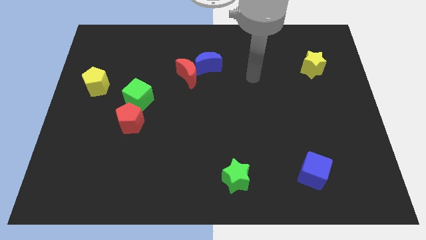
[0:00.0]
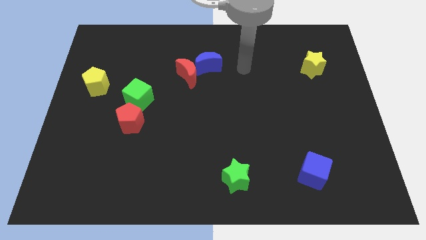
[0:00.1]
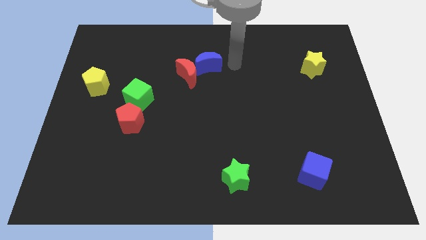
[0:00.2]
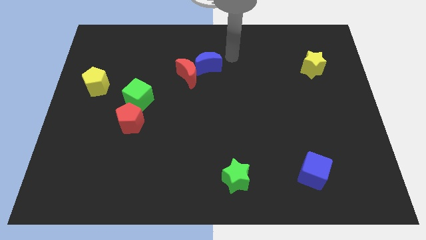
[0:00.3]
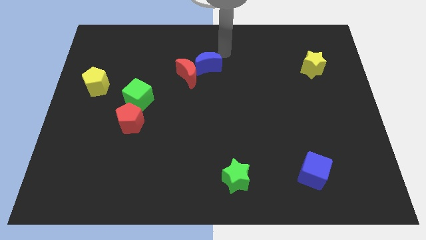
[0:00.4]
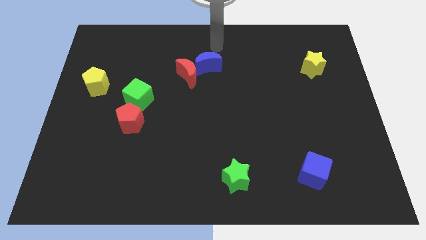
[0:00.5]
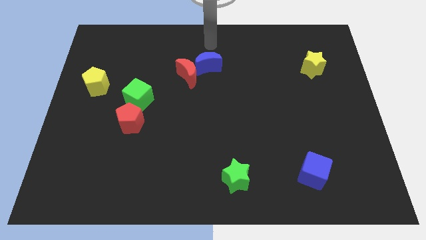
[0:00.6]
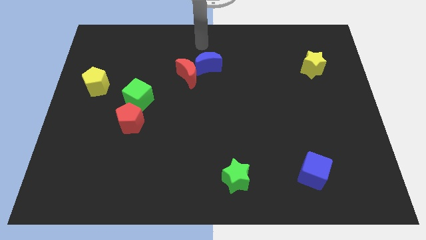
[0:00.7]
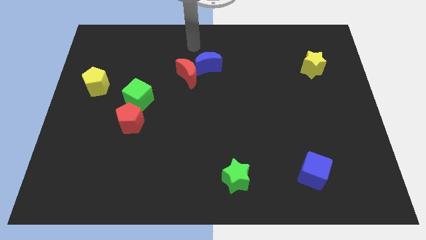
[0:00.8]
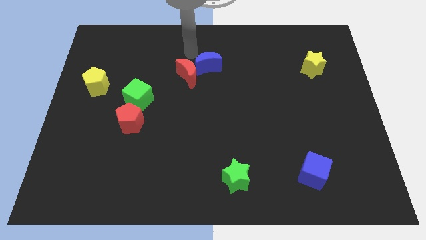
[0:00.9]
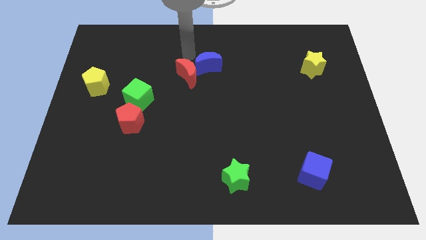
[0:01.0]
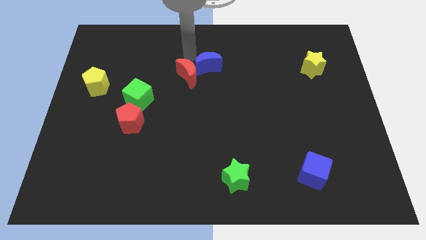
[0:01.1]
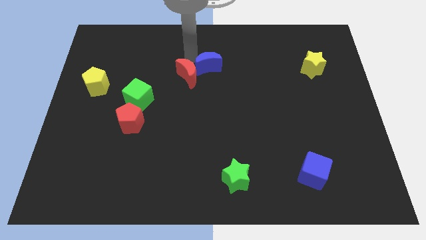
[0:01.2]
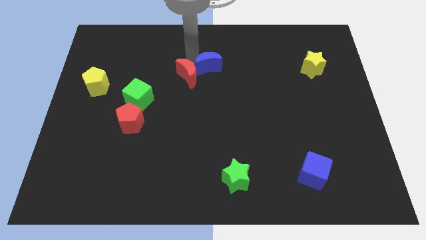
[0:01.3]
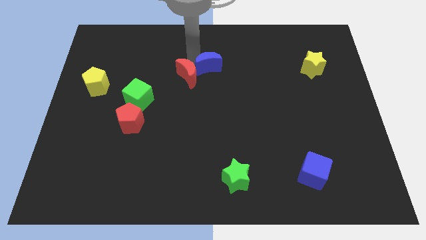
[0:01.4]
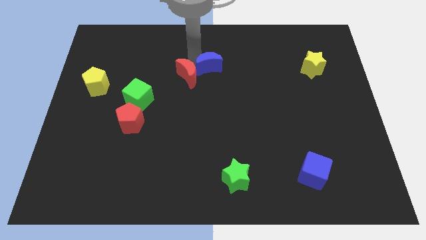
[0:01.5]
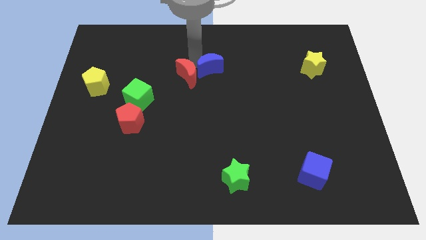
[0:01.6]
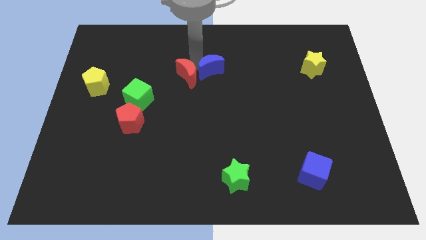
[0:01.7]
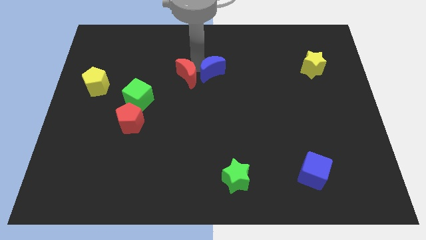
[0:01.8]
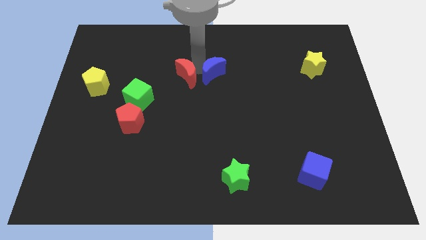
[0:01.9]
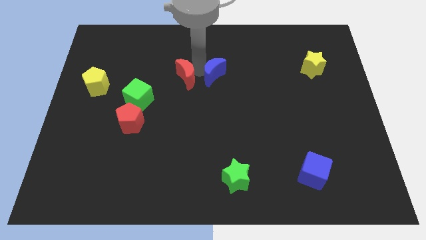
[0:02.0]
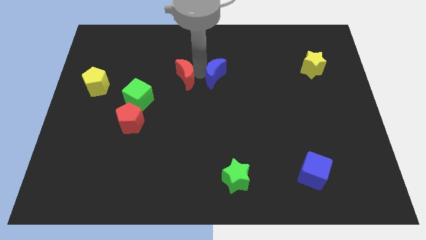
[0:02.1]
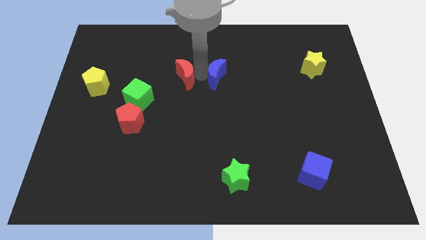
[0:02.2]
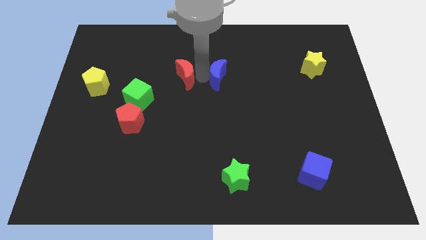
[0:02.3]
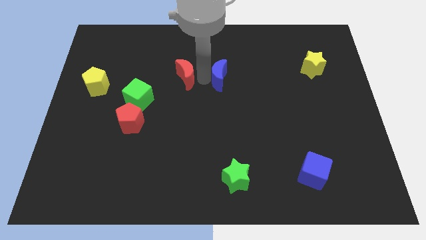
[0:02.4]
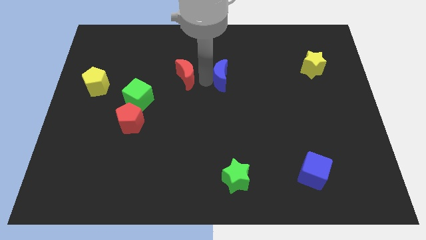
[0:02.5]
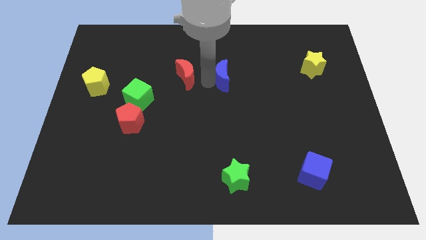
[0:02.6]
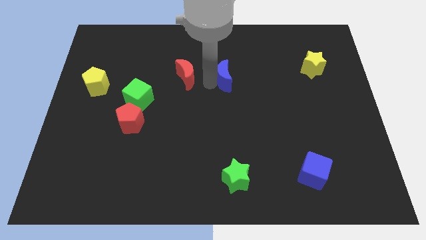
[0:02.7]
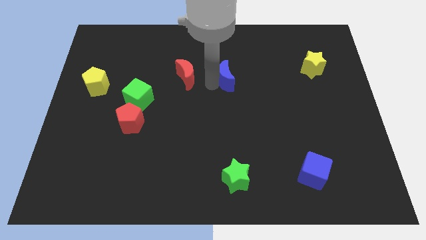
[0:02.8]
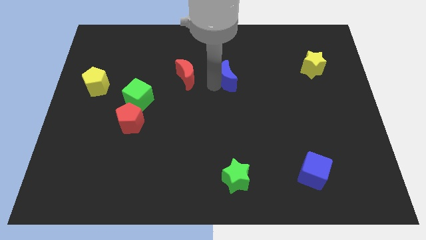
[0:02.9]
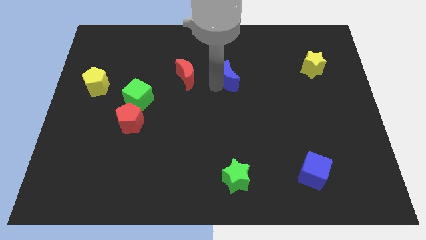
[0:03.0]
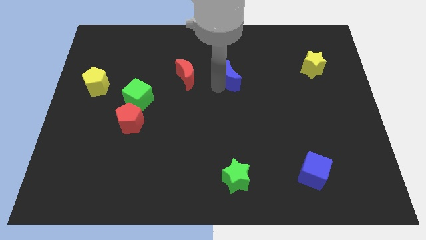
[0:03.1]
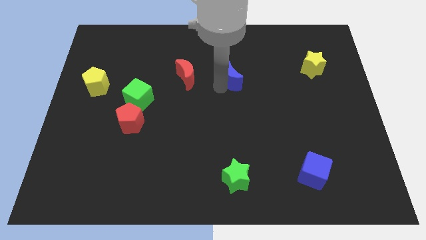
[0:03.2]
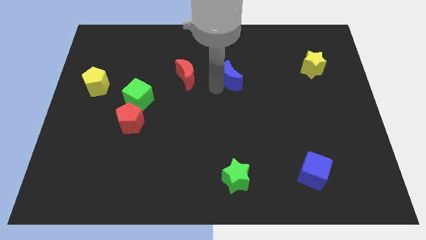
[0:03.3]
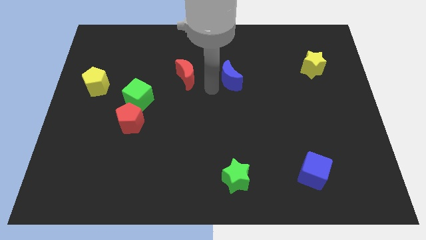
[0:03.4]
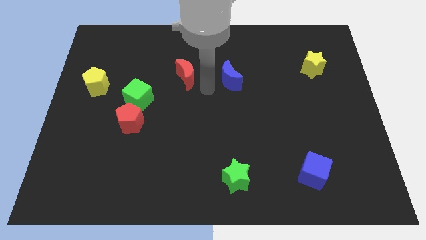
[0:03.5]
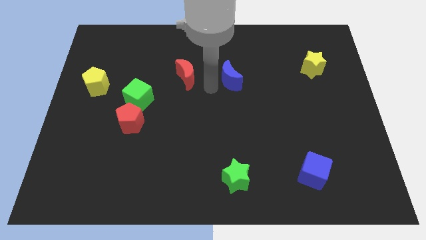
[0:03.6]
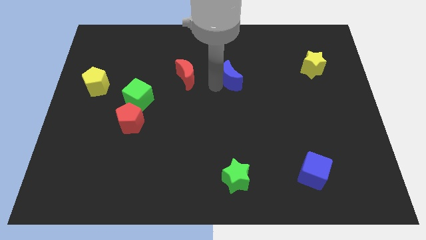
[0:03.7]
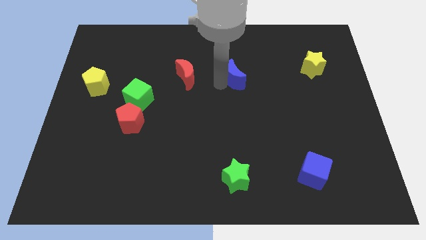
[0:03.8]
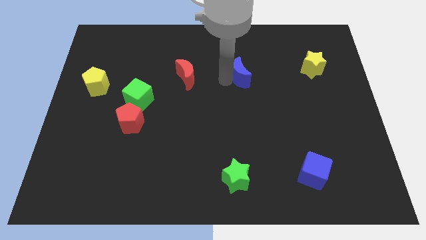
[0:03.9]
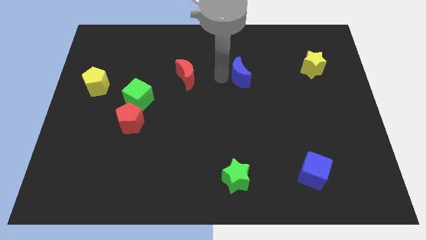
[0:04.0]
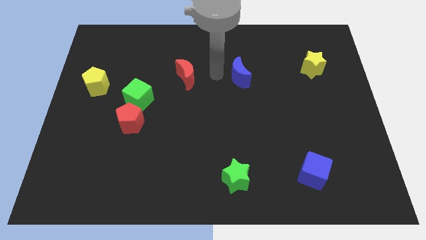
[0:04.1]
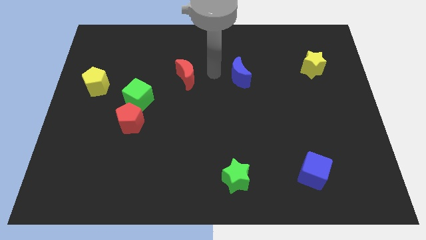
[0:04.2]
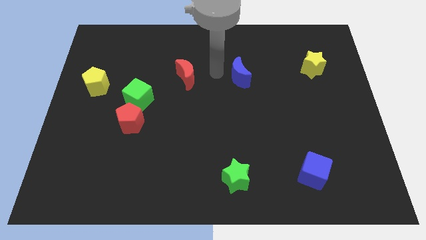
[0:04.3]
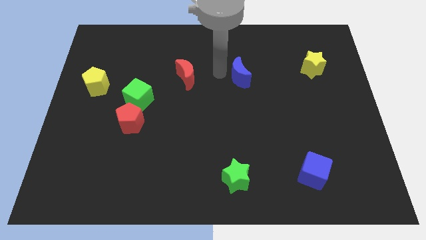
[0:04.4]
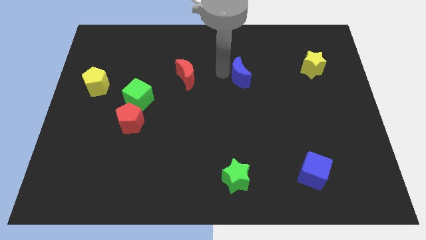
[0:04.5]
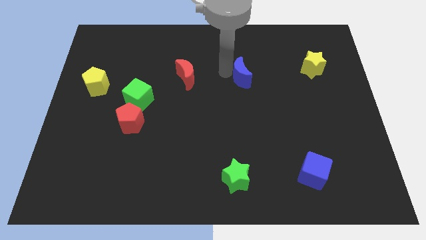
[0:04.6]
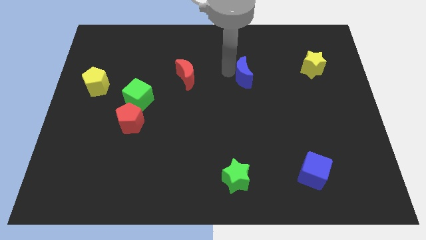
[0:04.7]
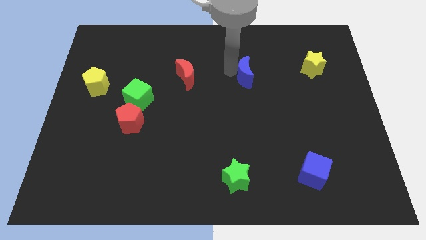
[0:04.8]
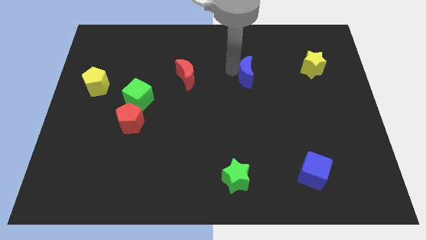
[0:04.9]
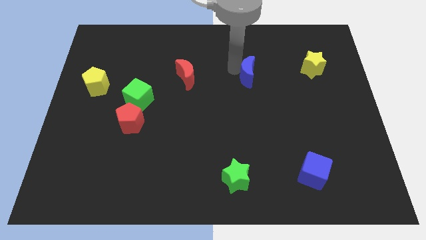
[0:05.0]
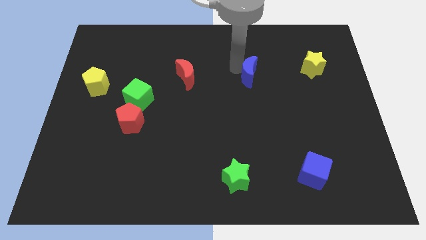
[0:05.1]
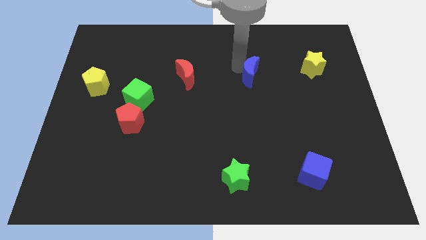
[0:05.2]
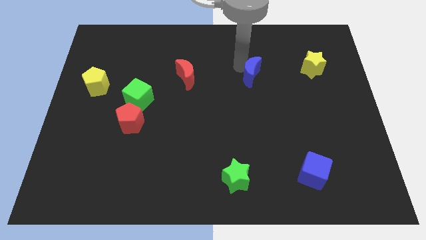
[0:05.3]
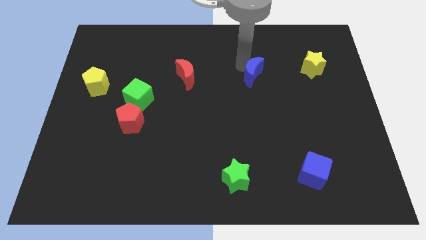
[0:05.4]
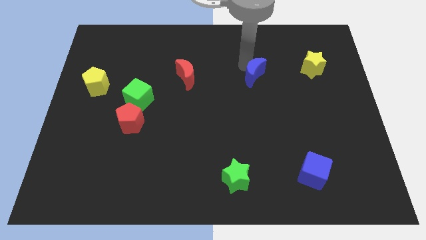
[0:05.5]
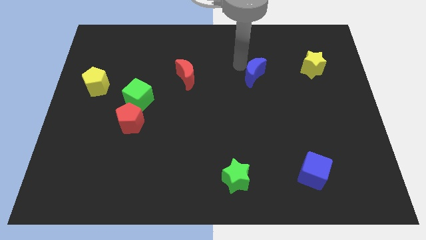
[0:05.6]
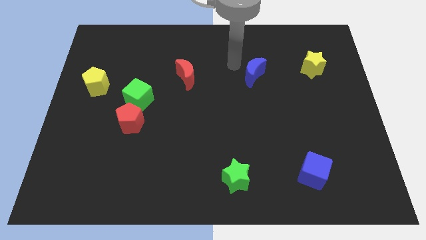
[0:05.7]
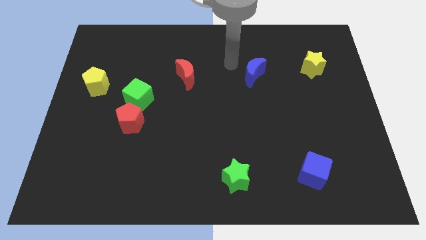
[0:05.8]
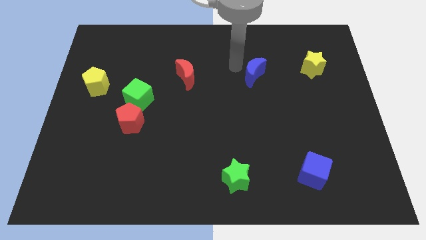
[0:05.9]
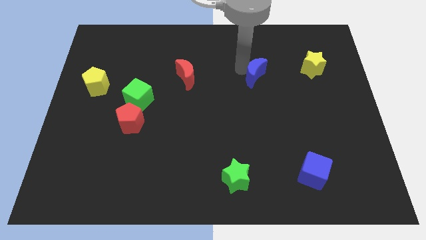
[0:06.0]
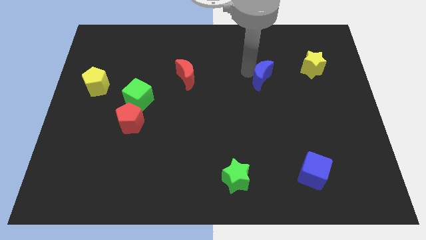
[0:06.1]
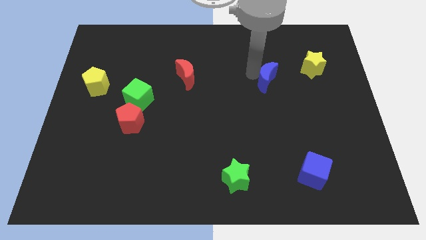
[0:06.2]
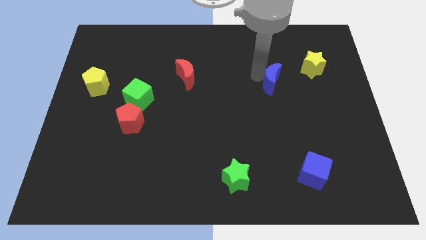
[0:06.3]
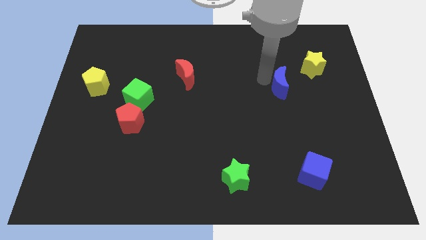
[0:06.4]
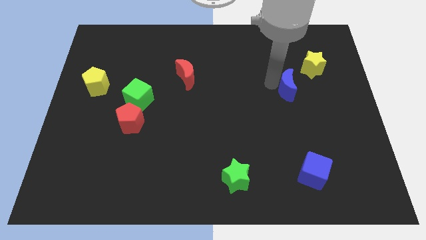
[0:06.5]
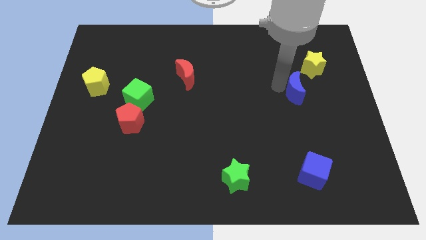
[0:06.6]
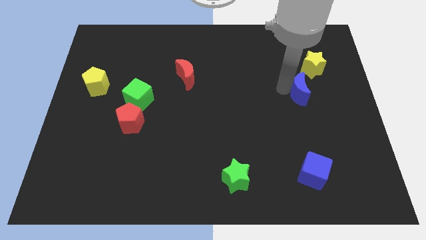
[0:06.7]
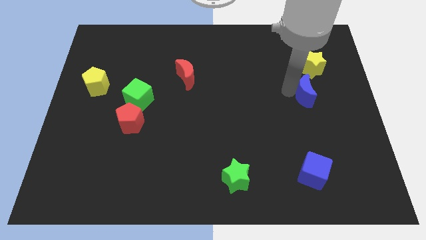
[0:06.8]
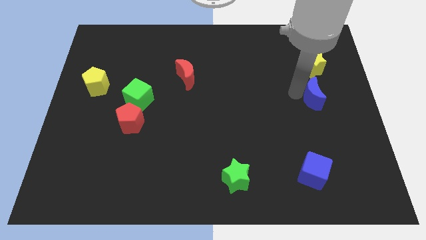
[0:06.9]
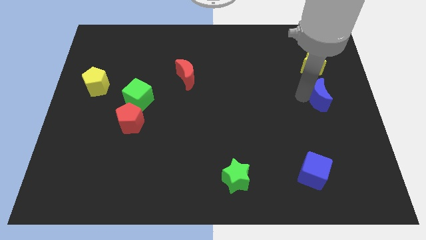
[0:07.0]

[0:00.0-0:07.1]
push the blue moon to the right side of the board

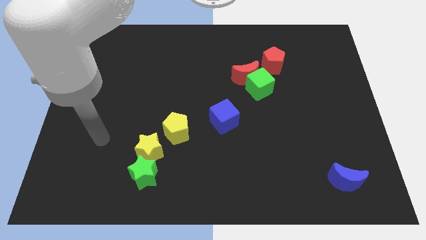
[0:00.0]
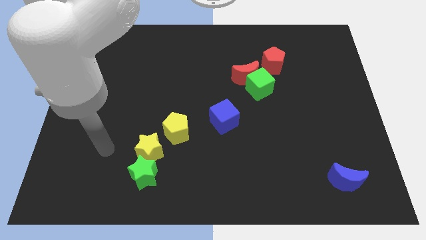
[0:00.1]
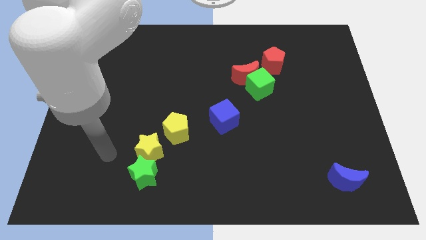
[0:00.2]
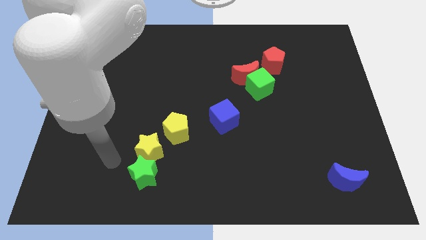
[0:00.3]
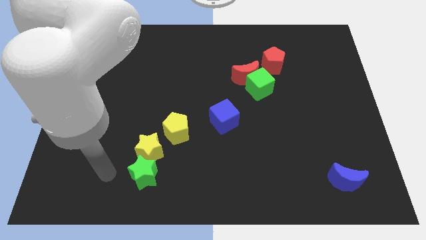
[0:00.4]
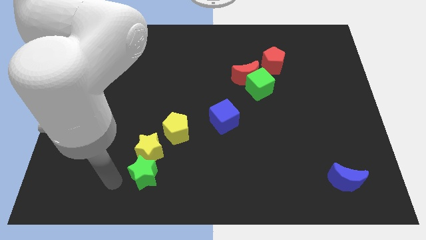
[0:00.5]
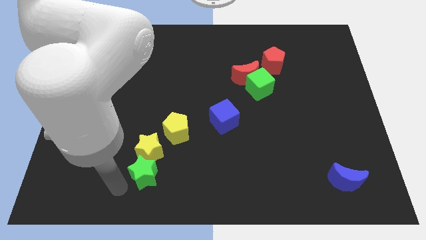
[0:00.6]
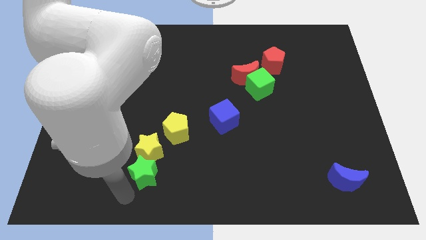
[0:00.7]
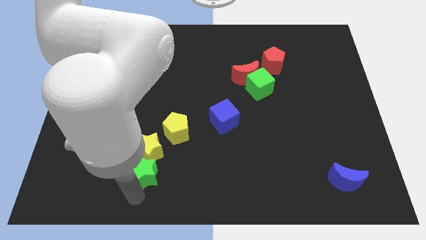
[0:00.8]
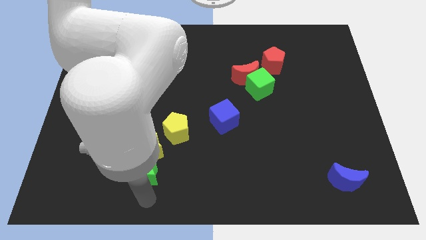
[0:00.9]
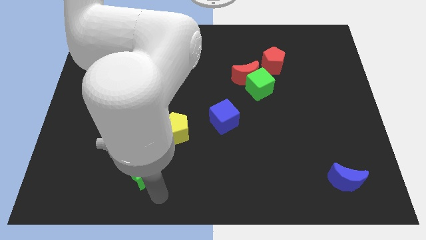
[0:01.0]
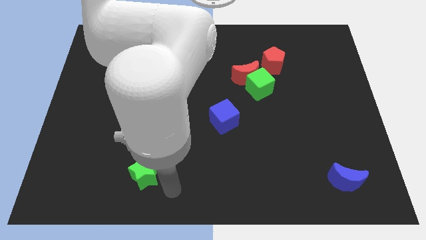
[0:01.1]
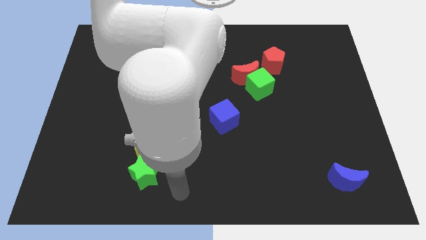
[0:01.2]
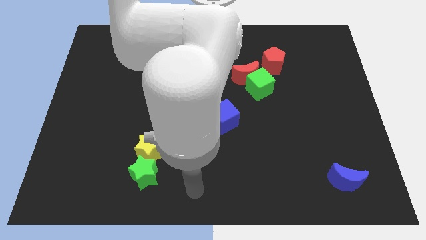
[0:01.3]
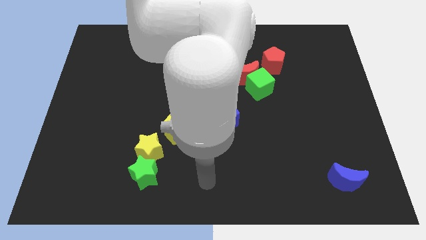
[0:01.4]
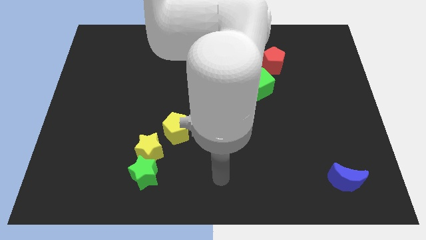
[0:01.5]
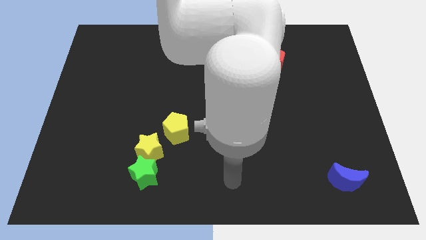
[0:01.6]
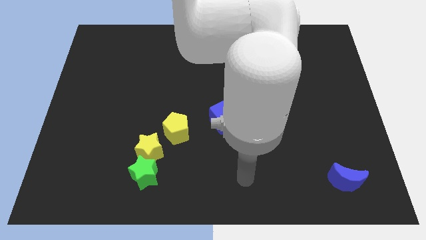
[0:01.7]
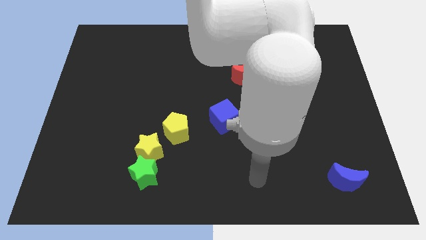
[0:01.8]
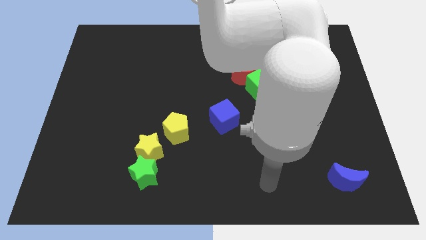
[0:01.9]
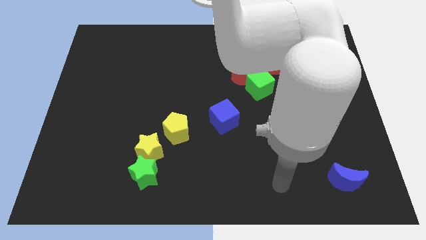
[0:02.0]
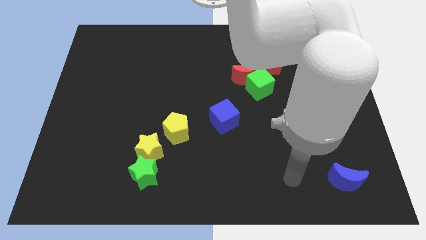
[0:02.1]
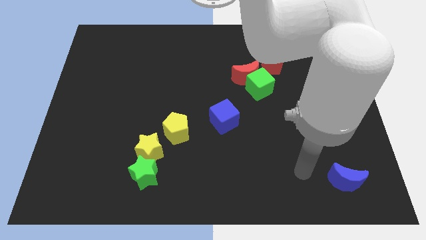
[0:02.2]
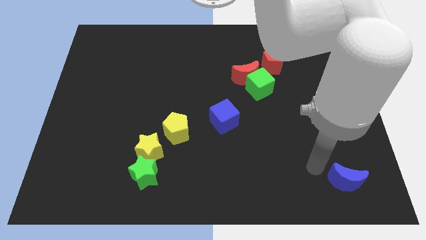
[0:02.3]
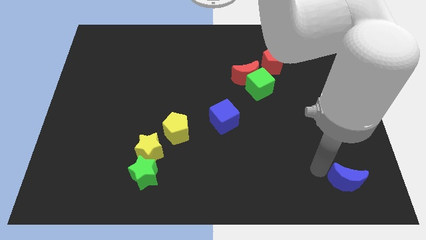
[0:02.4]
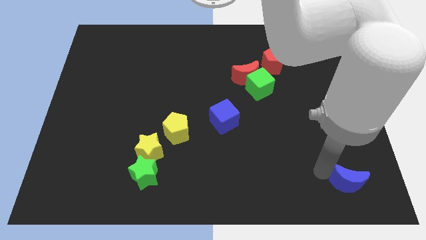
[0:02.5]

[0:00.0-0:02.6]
move the blue moon to the bottom right of the board
